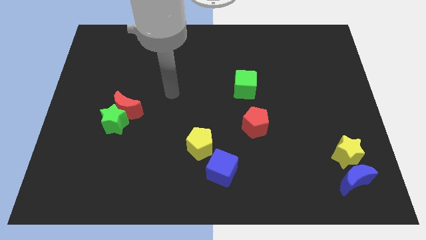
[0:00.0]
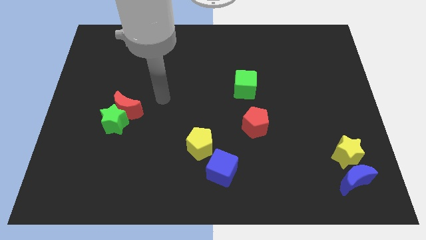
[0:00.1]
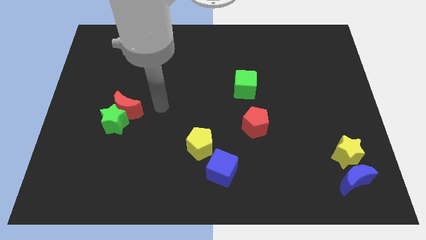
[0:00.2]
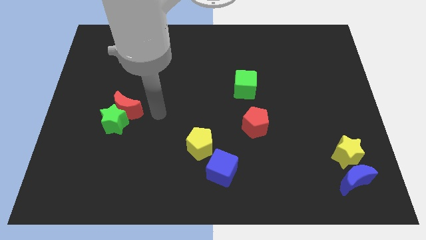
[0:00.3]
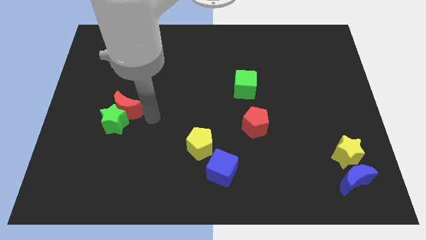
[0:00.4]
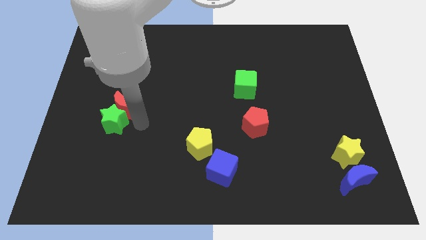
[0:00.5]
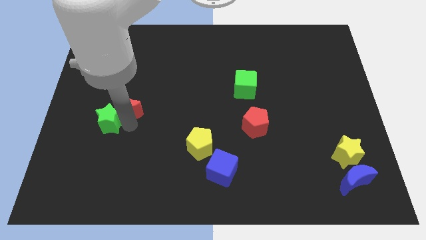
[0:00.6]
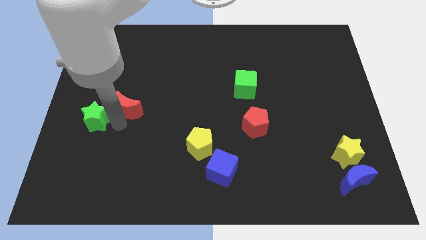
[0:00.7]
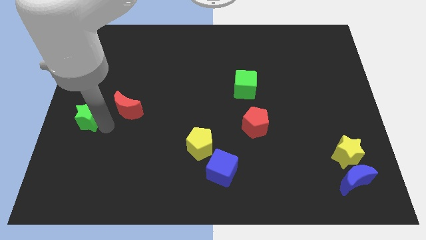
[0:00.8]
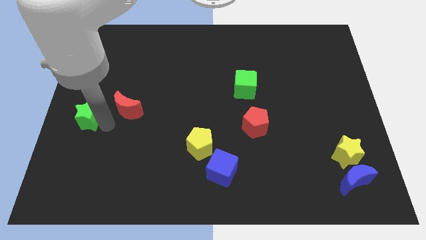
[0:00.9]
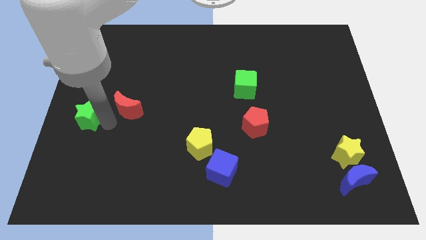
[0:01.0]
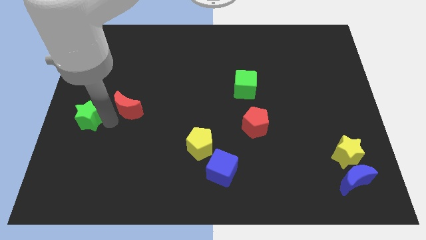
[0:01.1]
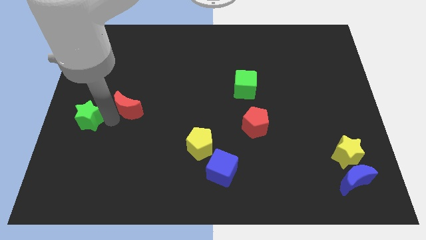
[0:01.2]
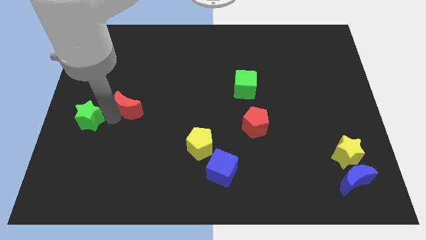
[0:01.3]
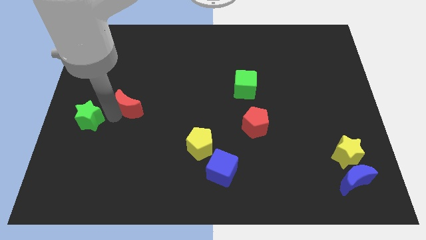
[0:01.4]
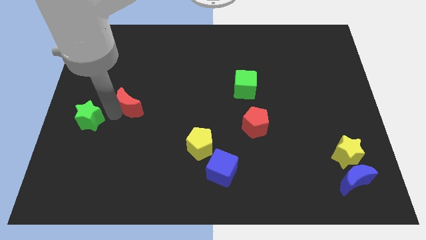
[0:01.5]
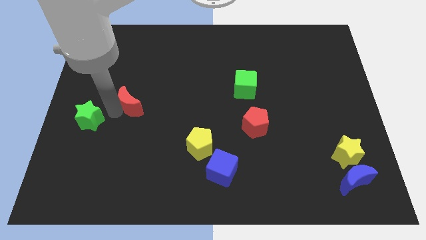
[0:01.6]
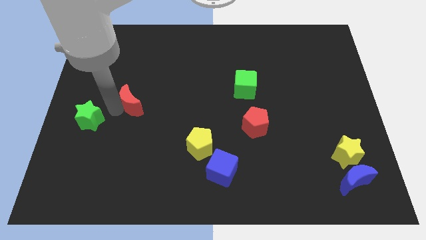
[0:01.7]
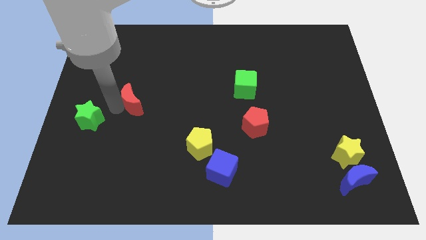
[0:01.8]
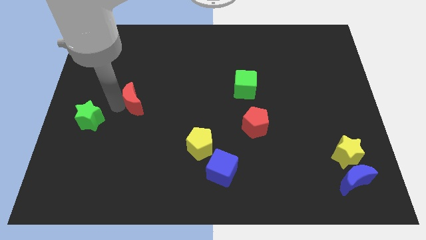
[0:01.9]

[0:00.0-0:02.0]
move the red moon away from the green star

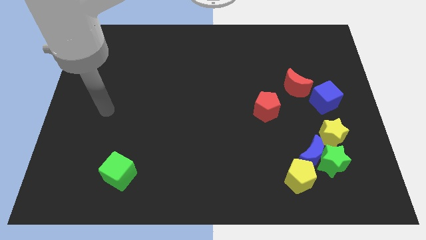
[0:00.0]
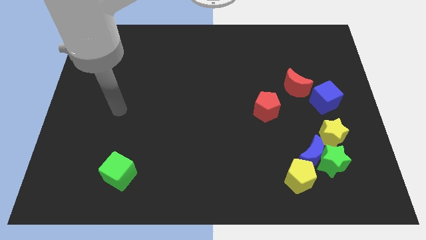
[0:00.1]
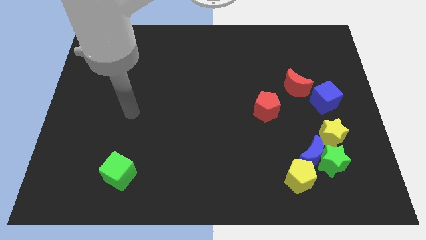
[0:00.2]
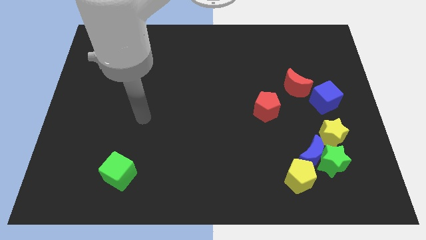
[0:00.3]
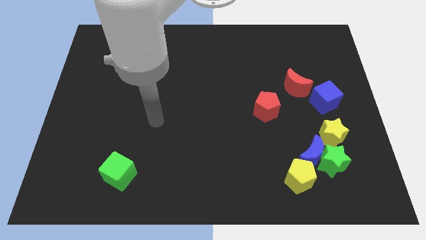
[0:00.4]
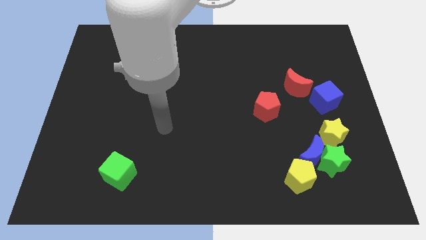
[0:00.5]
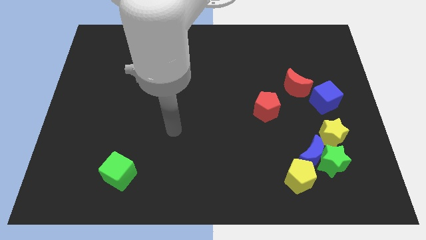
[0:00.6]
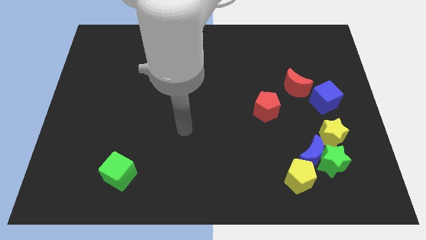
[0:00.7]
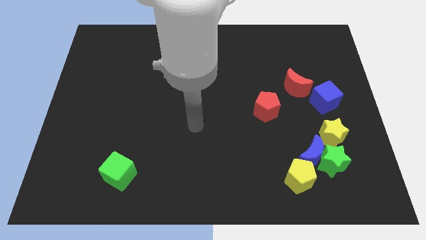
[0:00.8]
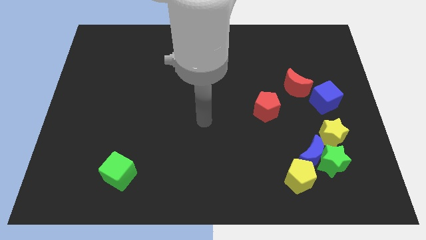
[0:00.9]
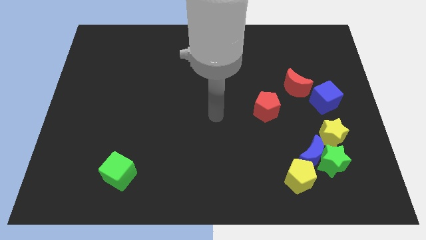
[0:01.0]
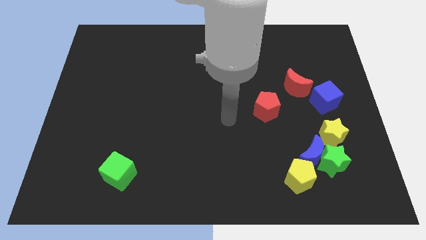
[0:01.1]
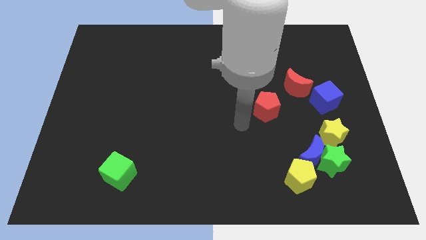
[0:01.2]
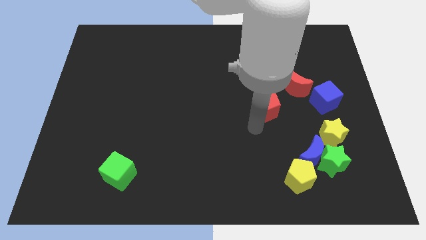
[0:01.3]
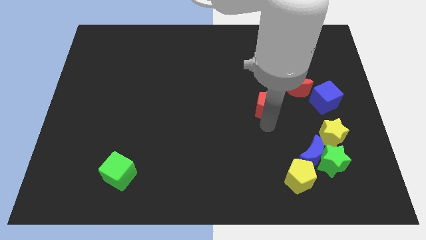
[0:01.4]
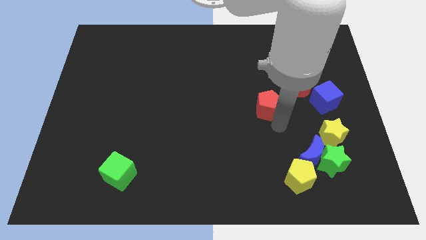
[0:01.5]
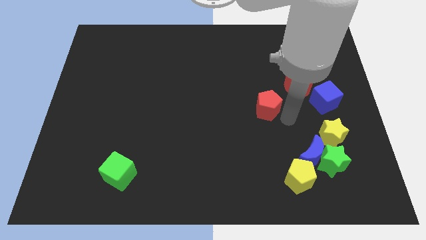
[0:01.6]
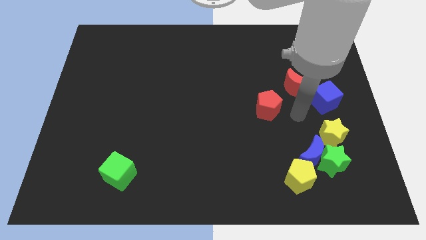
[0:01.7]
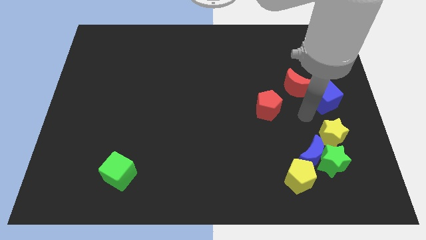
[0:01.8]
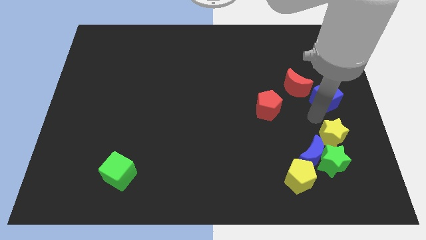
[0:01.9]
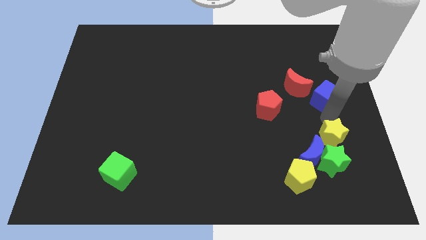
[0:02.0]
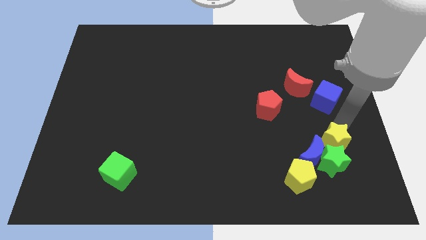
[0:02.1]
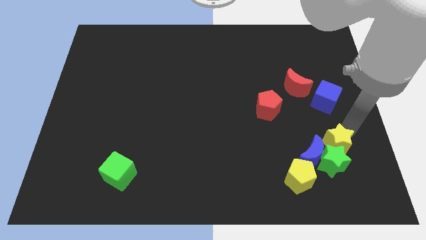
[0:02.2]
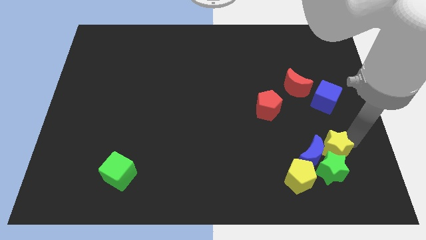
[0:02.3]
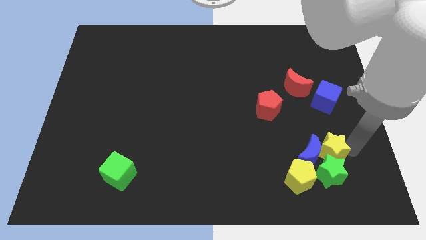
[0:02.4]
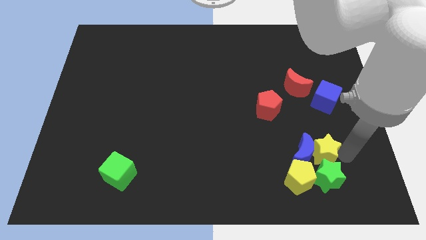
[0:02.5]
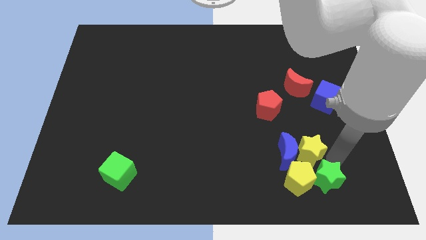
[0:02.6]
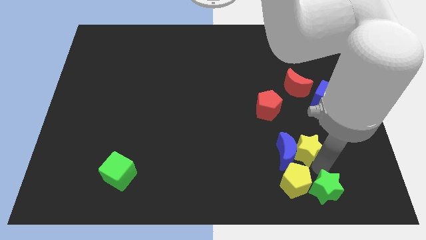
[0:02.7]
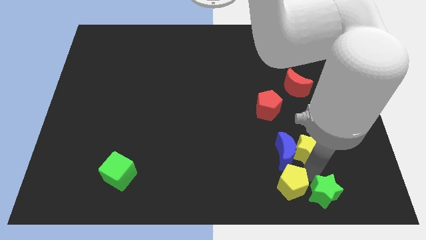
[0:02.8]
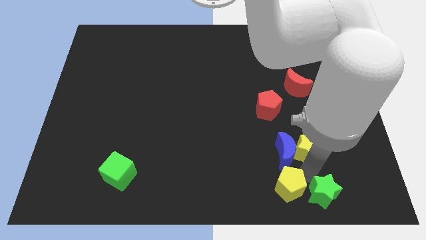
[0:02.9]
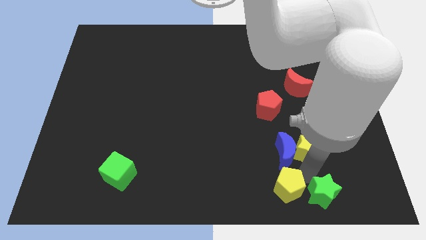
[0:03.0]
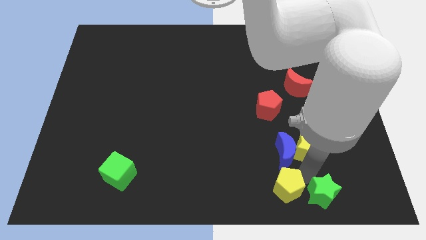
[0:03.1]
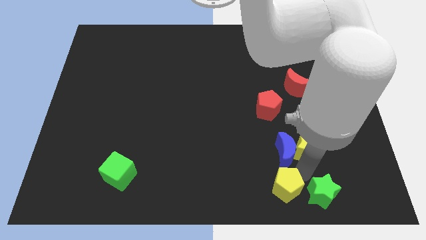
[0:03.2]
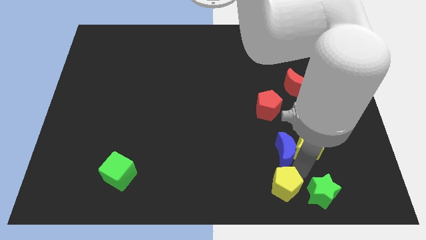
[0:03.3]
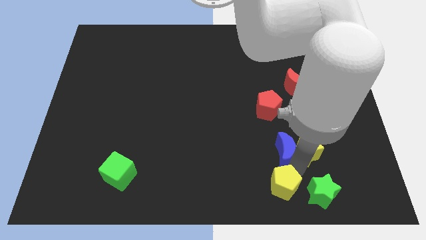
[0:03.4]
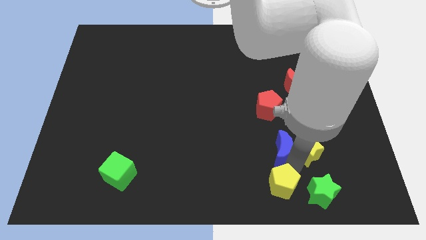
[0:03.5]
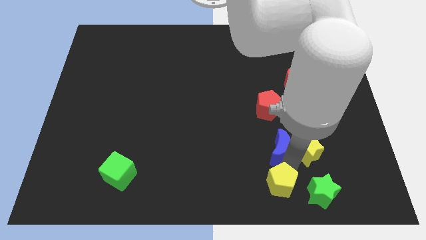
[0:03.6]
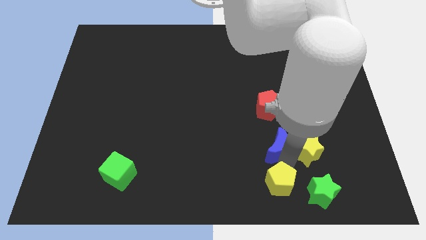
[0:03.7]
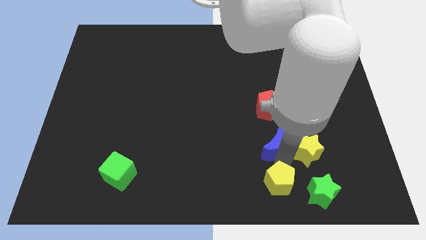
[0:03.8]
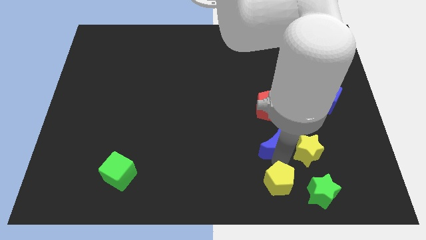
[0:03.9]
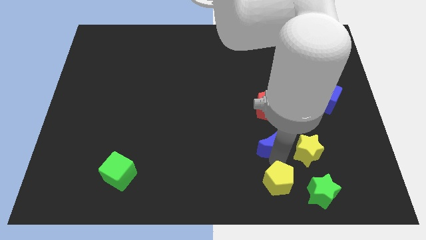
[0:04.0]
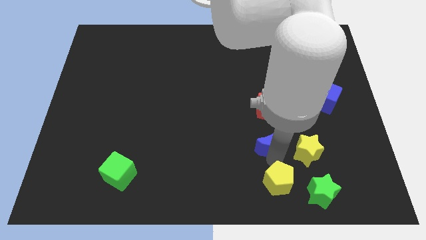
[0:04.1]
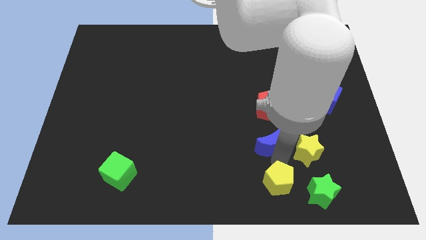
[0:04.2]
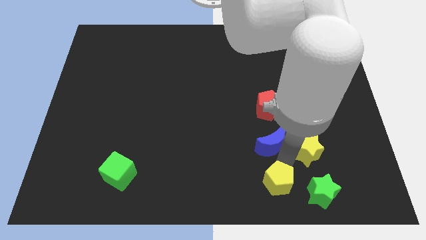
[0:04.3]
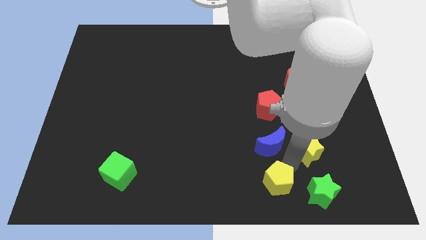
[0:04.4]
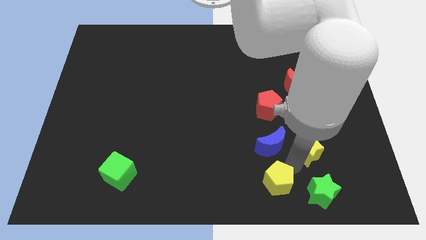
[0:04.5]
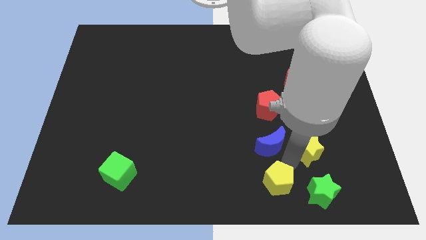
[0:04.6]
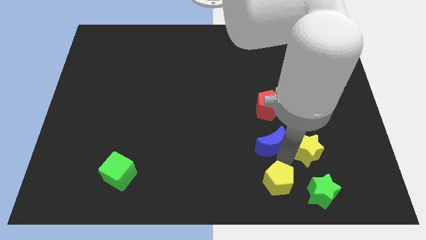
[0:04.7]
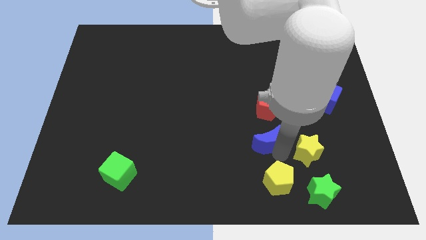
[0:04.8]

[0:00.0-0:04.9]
separate the blue moon from the green star, yellow pentagon, and yellow star

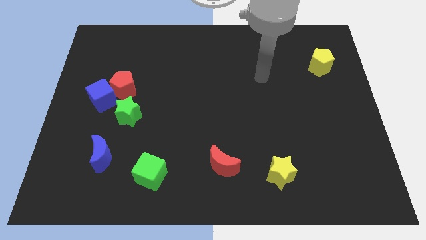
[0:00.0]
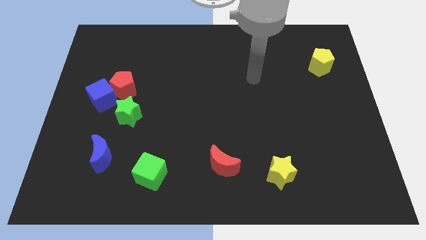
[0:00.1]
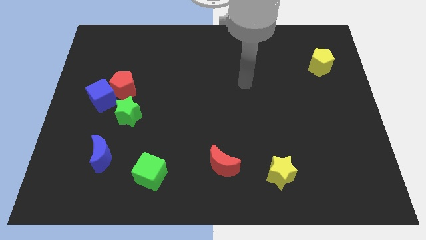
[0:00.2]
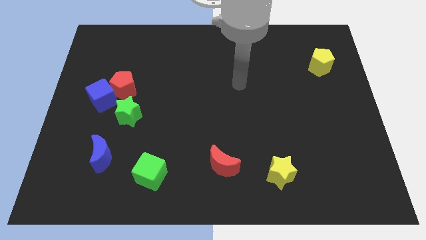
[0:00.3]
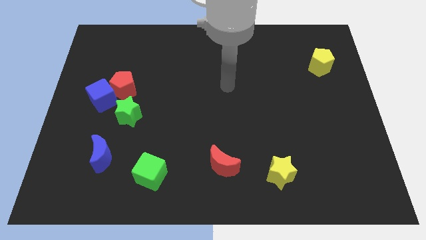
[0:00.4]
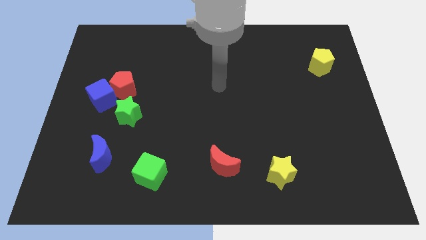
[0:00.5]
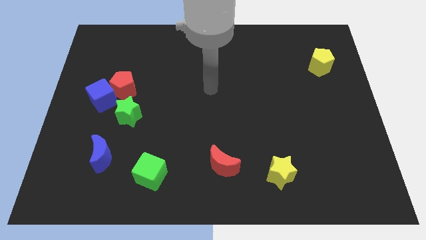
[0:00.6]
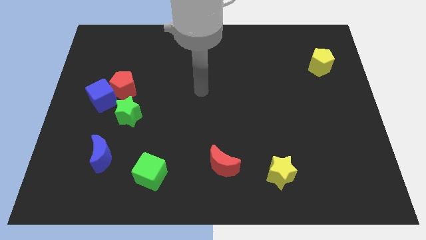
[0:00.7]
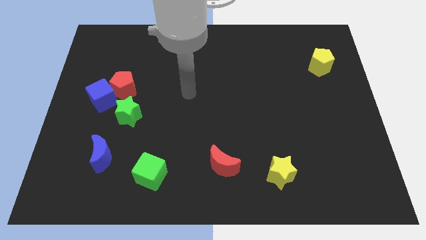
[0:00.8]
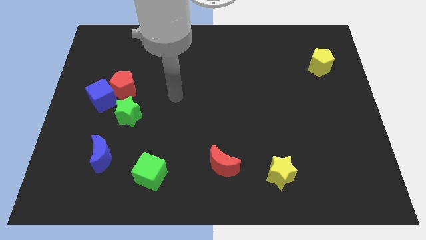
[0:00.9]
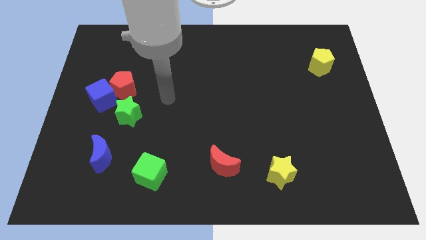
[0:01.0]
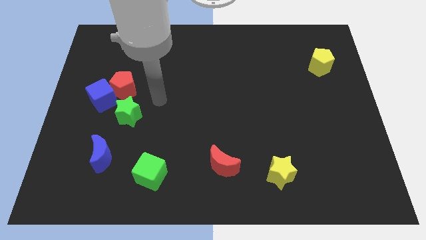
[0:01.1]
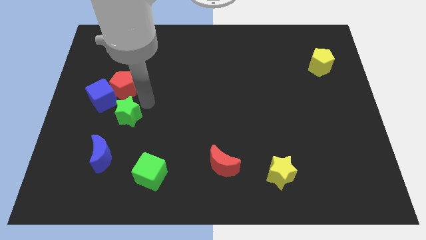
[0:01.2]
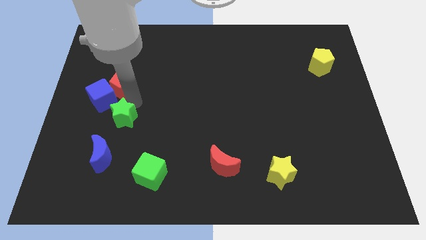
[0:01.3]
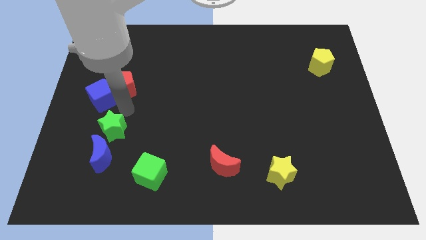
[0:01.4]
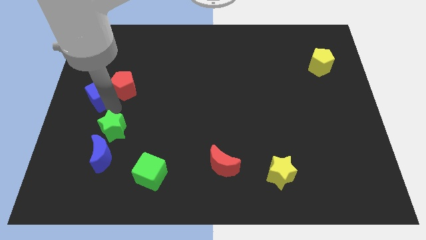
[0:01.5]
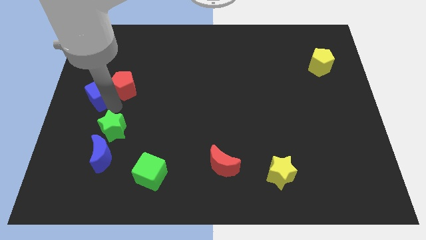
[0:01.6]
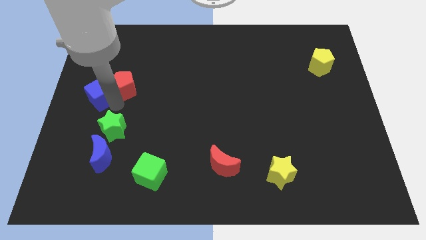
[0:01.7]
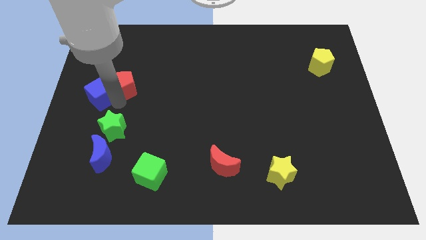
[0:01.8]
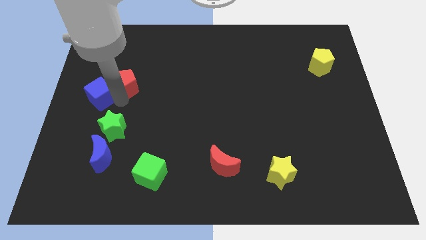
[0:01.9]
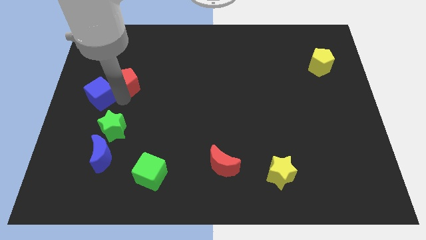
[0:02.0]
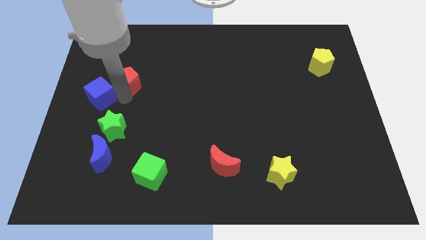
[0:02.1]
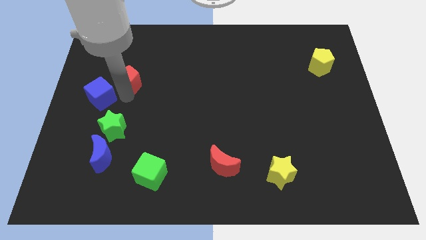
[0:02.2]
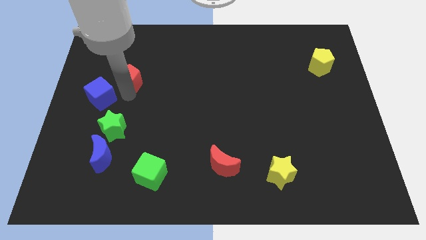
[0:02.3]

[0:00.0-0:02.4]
move the red pentagon away from the blue cube and green star

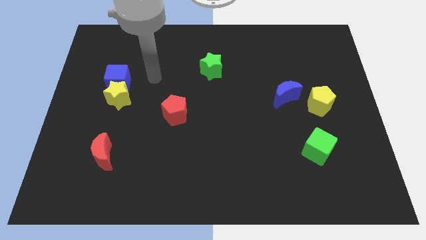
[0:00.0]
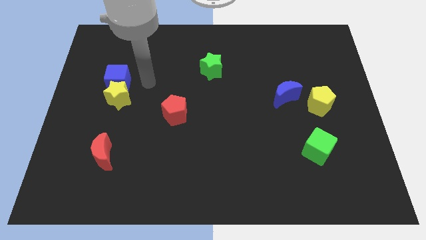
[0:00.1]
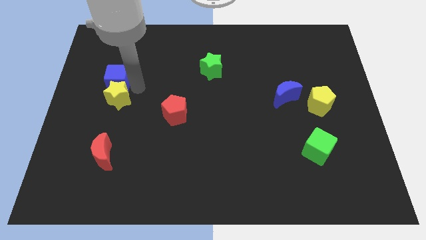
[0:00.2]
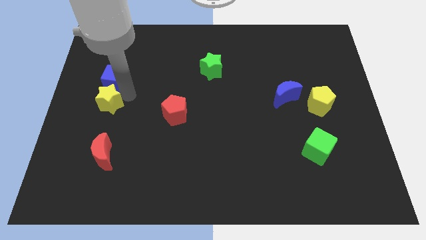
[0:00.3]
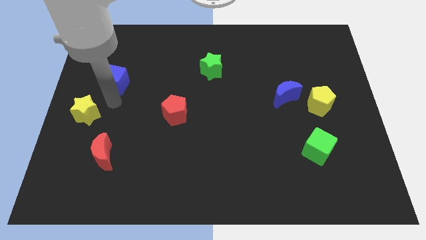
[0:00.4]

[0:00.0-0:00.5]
separate the blue cube from the yellow star
